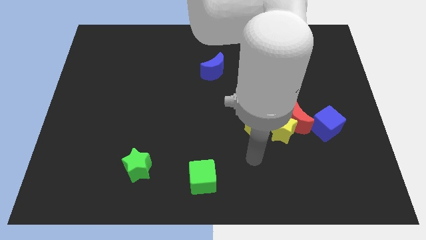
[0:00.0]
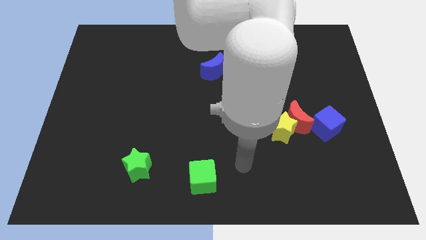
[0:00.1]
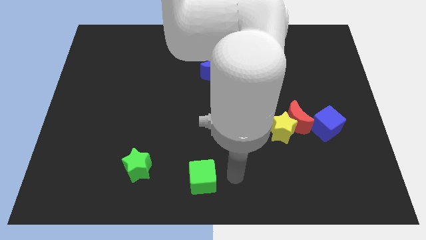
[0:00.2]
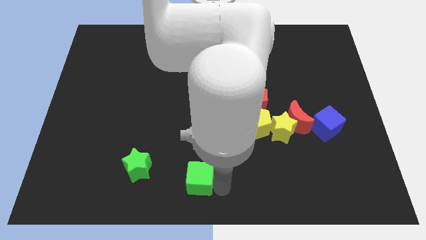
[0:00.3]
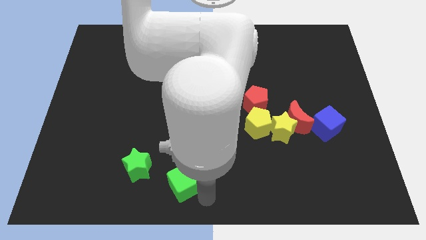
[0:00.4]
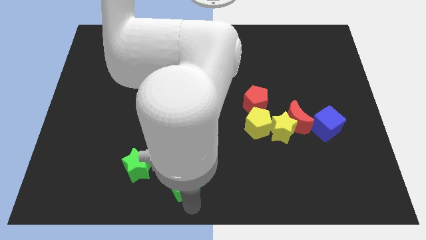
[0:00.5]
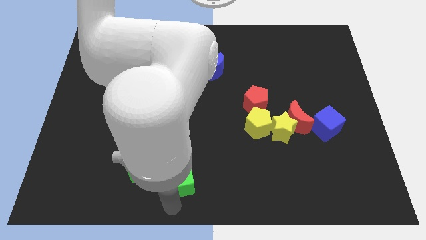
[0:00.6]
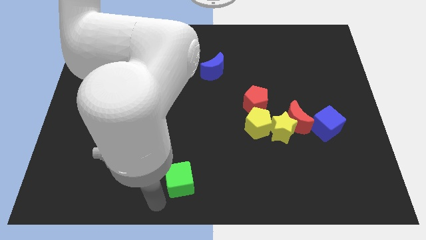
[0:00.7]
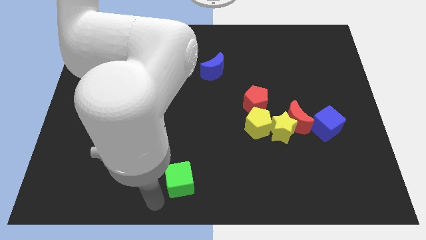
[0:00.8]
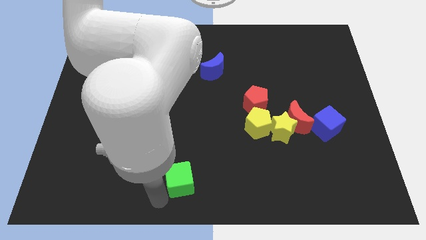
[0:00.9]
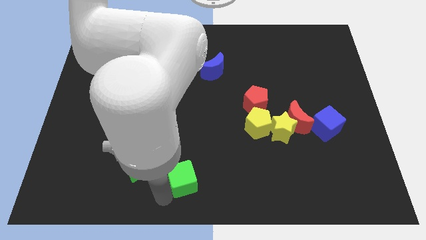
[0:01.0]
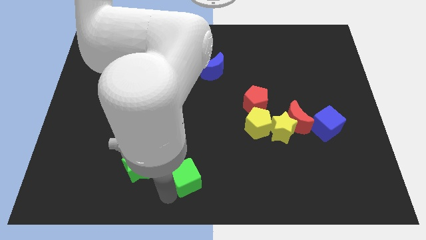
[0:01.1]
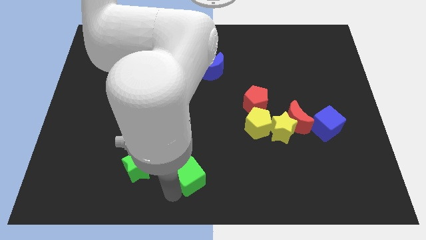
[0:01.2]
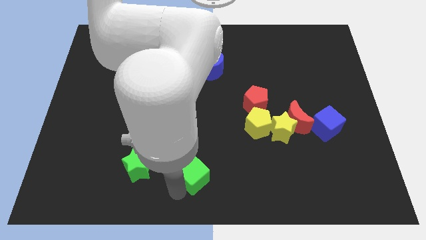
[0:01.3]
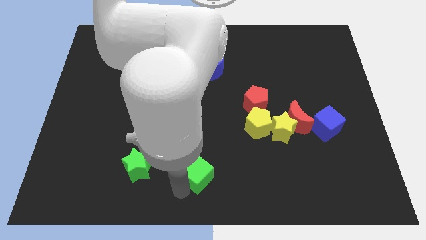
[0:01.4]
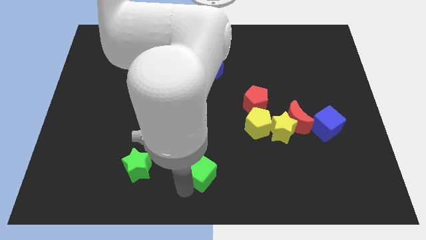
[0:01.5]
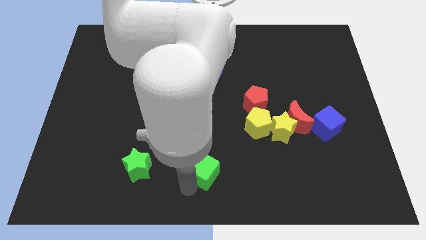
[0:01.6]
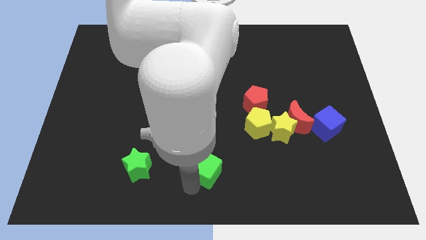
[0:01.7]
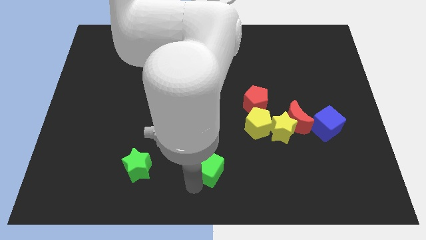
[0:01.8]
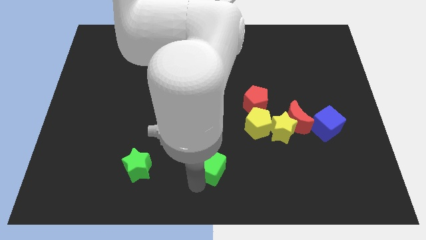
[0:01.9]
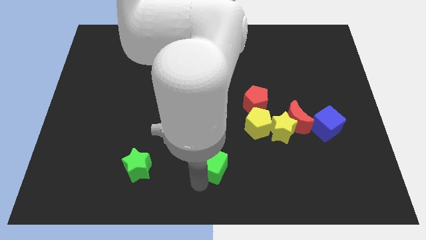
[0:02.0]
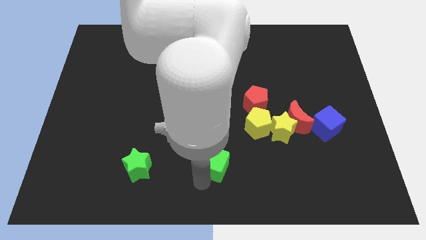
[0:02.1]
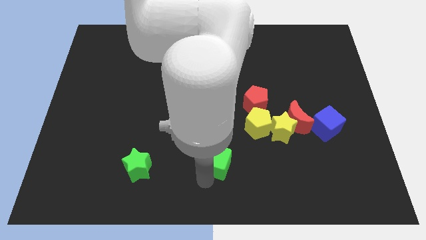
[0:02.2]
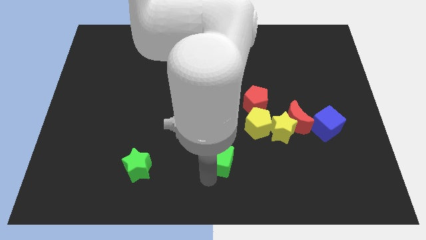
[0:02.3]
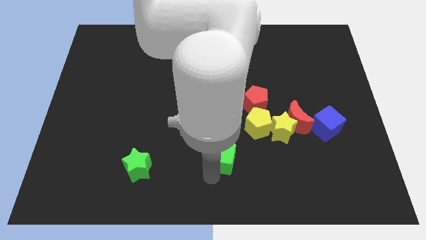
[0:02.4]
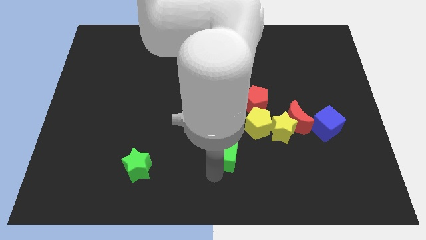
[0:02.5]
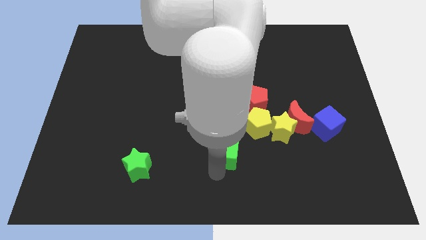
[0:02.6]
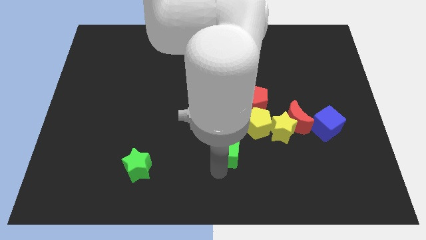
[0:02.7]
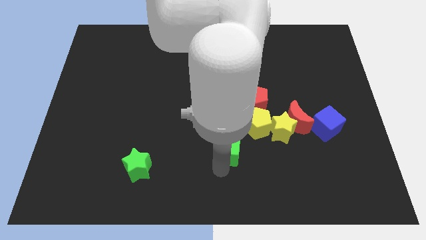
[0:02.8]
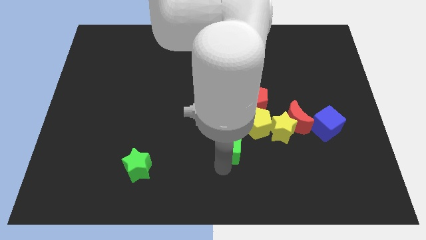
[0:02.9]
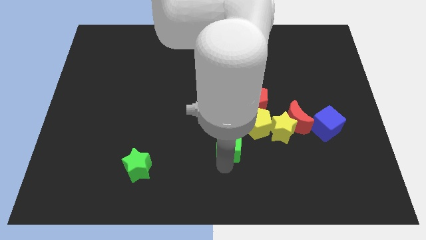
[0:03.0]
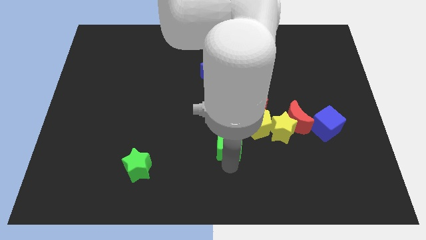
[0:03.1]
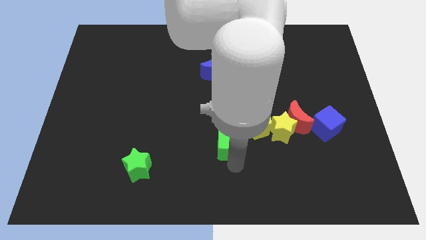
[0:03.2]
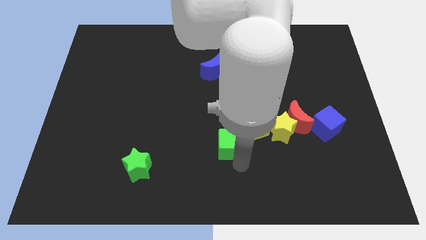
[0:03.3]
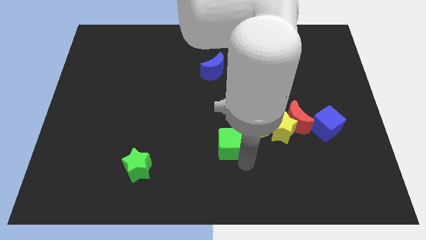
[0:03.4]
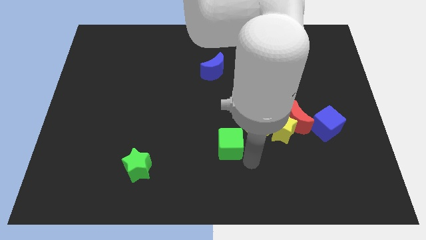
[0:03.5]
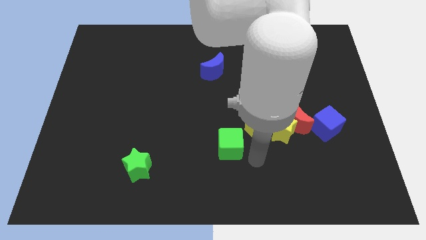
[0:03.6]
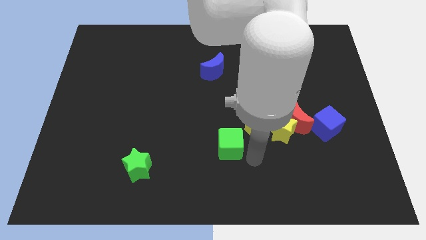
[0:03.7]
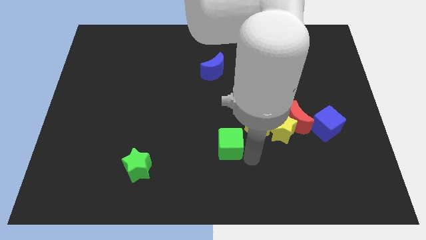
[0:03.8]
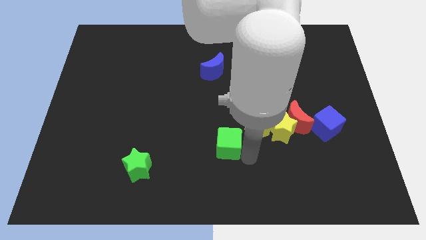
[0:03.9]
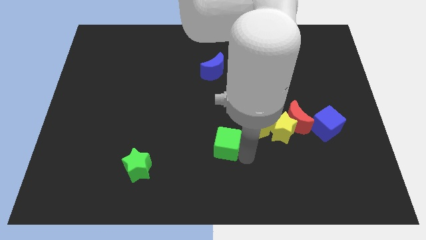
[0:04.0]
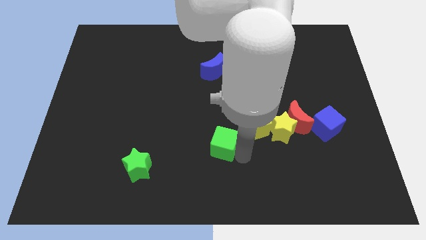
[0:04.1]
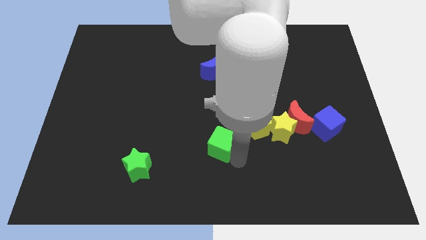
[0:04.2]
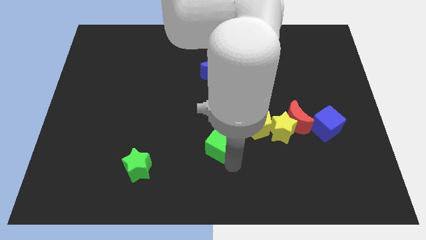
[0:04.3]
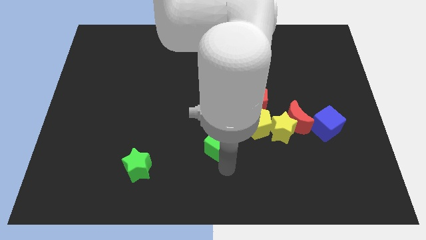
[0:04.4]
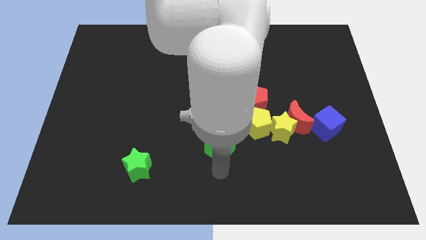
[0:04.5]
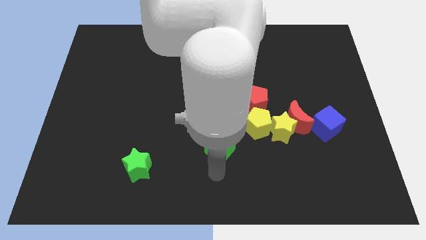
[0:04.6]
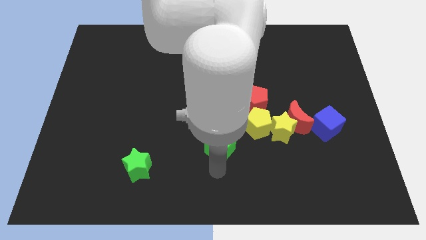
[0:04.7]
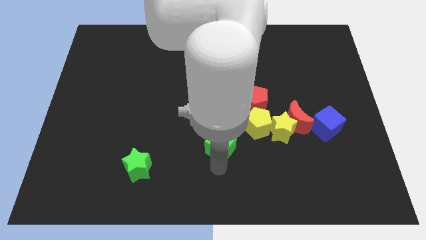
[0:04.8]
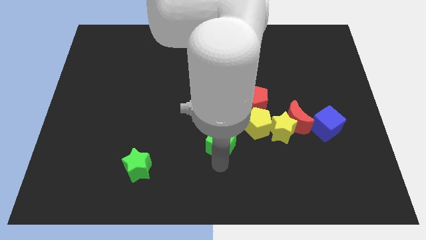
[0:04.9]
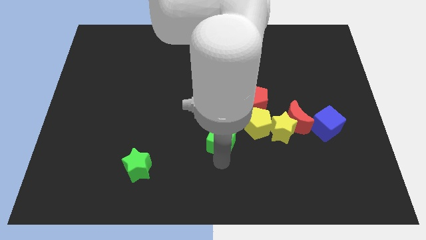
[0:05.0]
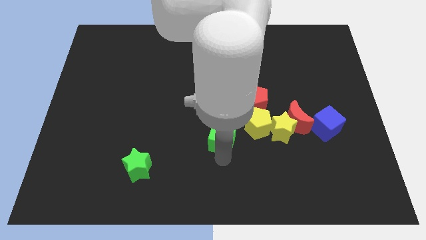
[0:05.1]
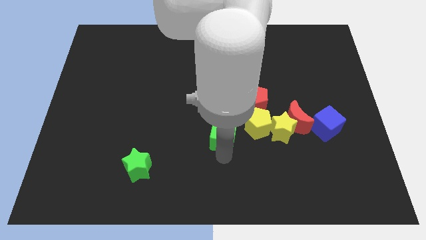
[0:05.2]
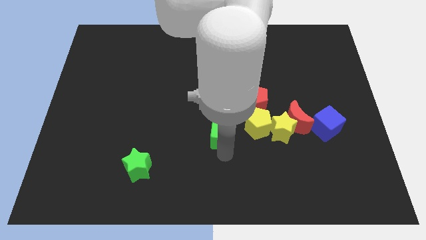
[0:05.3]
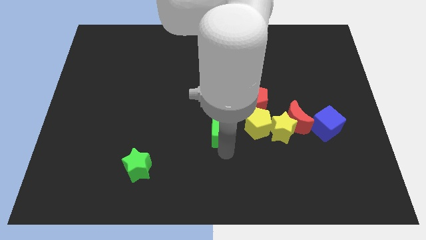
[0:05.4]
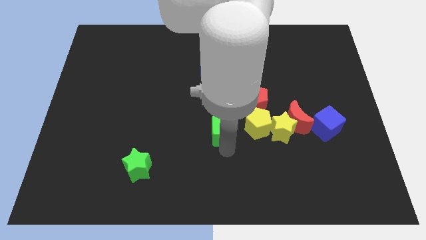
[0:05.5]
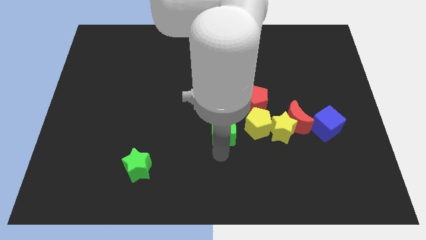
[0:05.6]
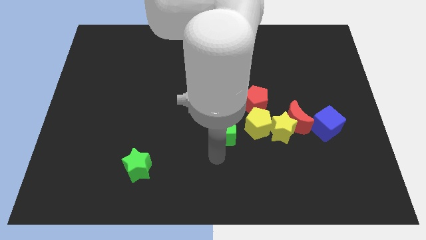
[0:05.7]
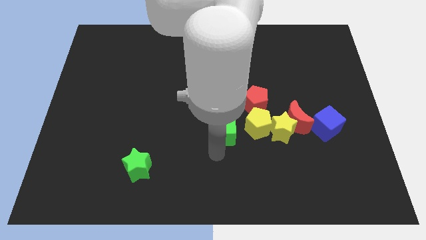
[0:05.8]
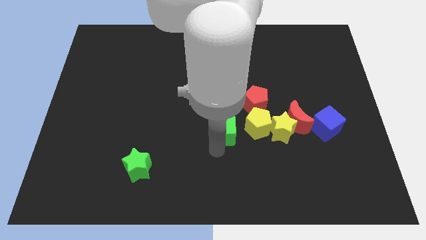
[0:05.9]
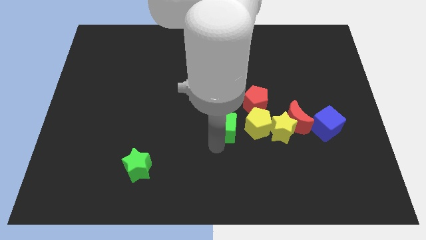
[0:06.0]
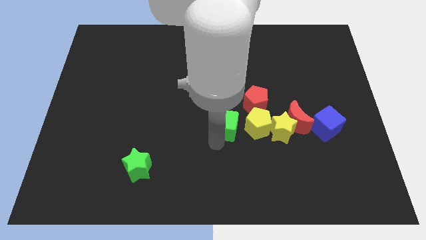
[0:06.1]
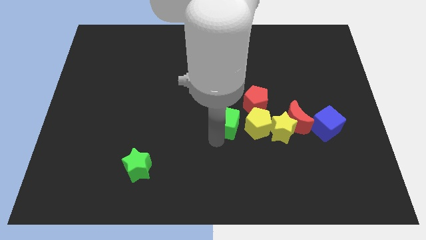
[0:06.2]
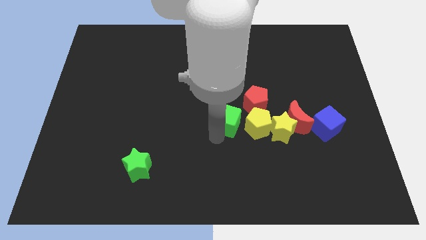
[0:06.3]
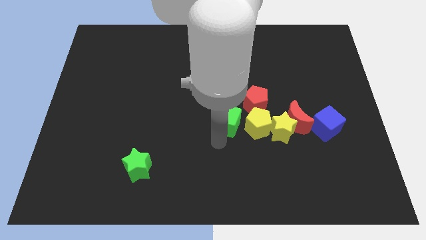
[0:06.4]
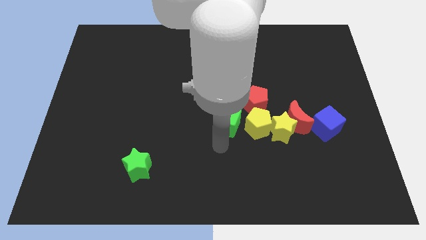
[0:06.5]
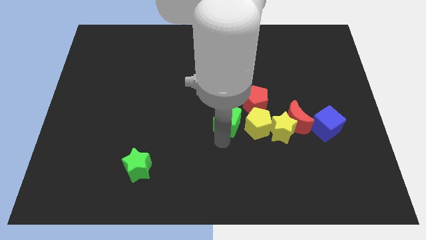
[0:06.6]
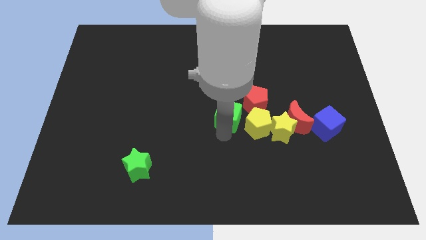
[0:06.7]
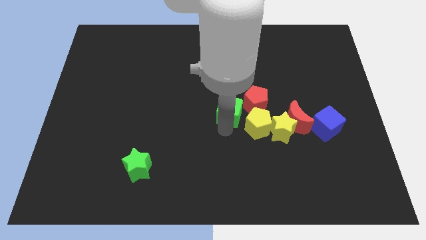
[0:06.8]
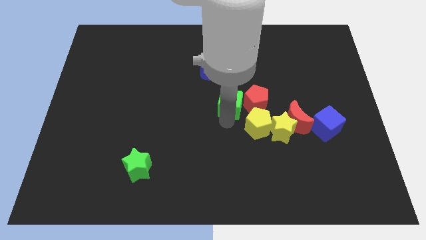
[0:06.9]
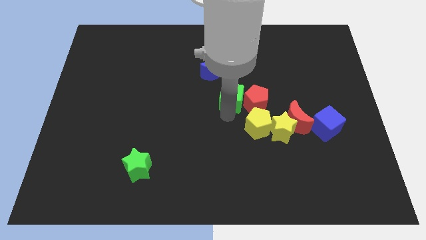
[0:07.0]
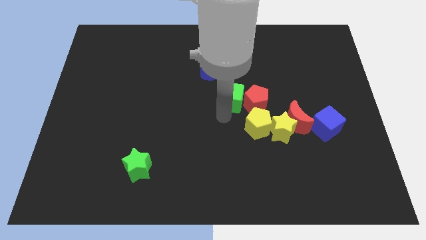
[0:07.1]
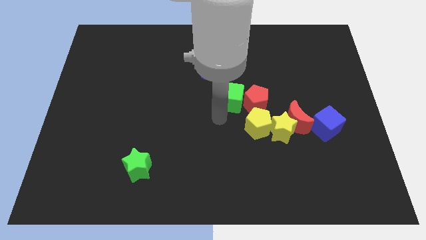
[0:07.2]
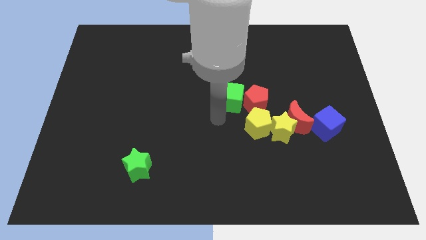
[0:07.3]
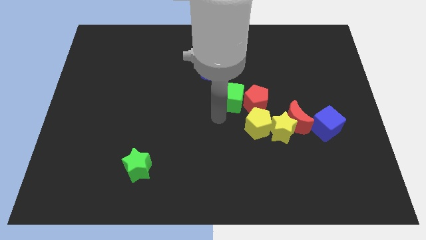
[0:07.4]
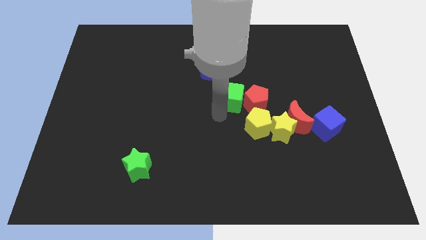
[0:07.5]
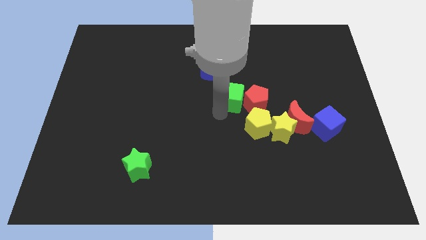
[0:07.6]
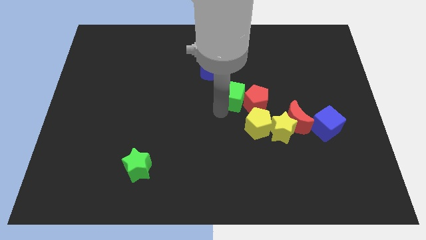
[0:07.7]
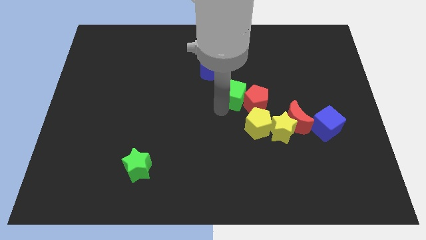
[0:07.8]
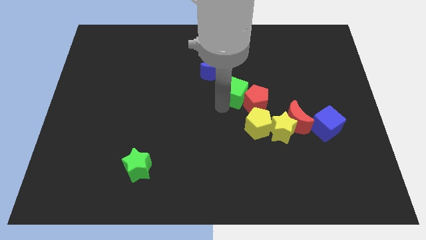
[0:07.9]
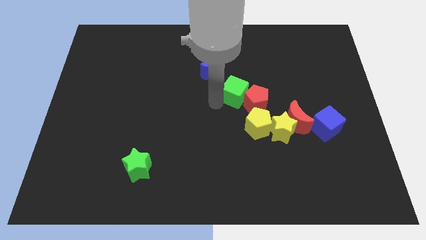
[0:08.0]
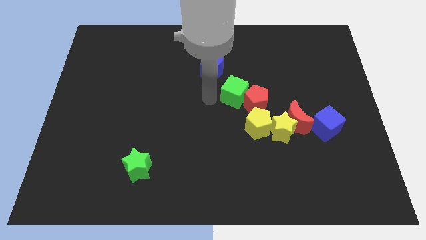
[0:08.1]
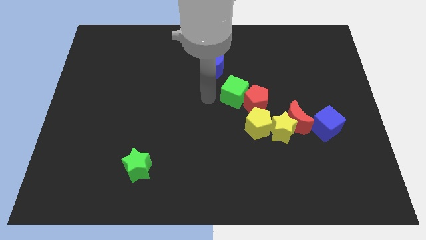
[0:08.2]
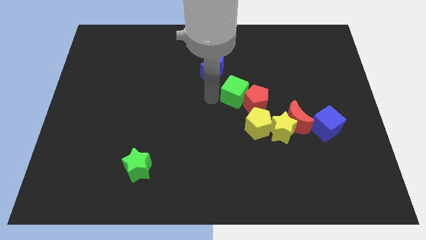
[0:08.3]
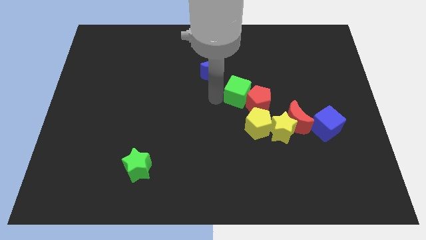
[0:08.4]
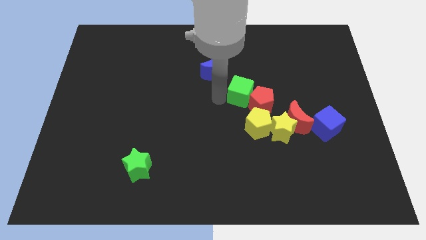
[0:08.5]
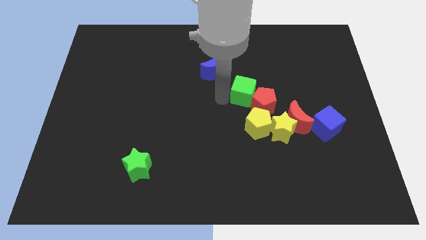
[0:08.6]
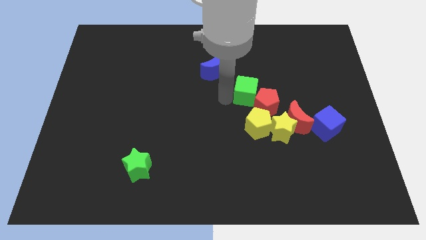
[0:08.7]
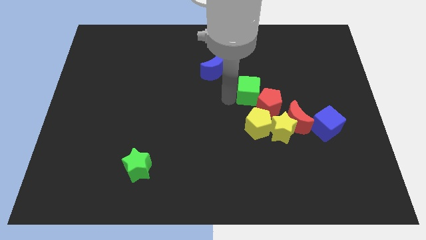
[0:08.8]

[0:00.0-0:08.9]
move the green cube upwards and right diagonally
